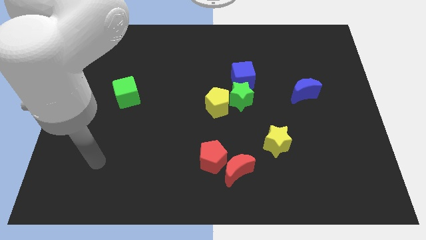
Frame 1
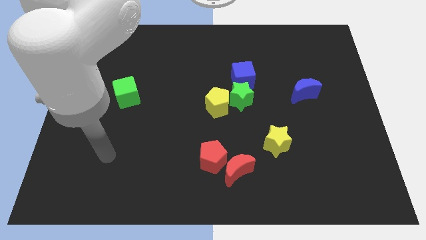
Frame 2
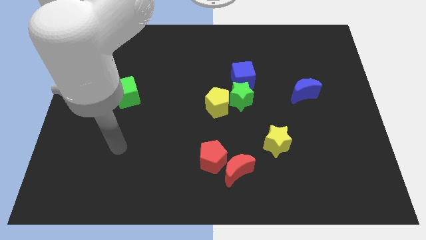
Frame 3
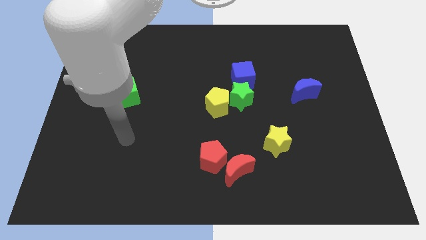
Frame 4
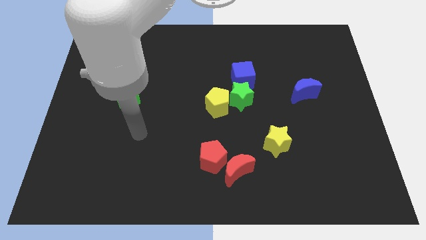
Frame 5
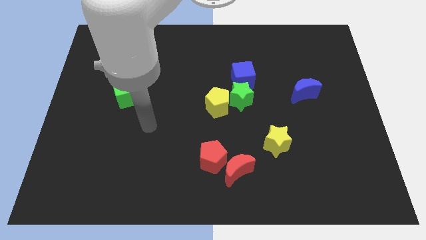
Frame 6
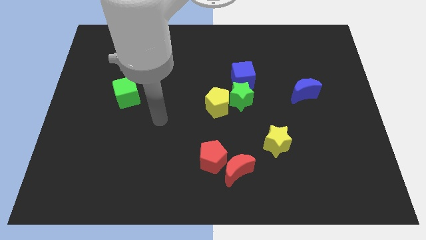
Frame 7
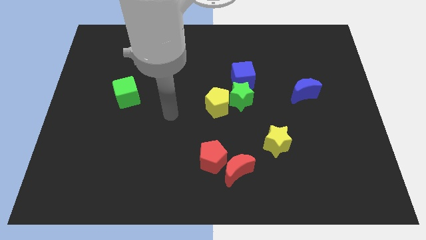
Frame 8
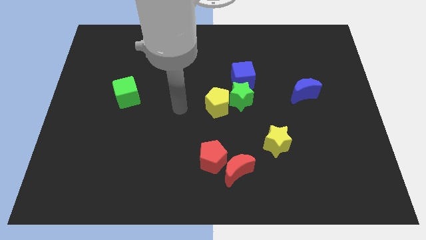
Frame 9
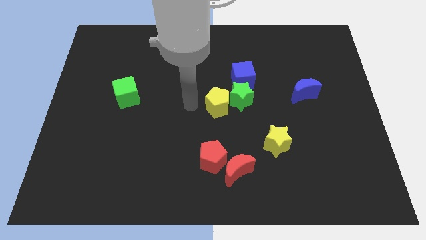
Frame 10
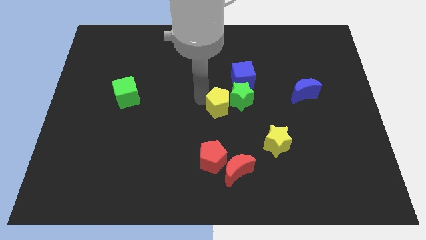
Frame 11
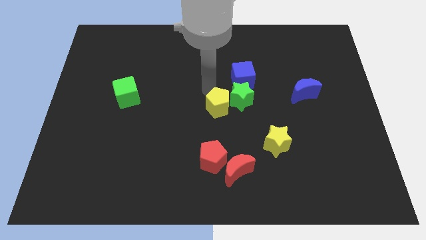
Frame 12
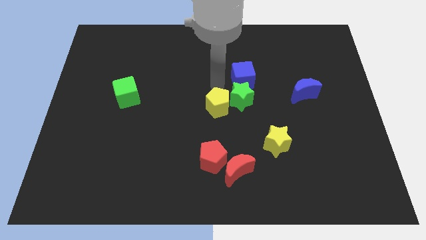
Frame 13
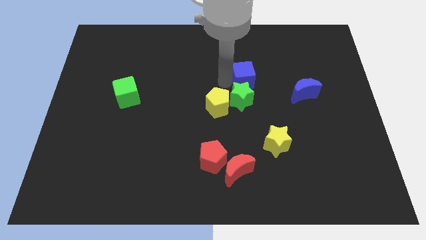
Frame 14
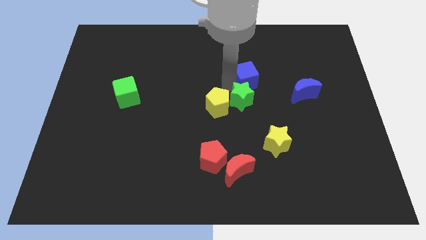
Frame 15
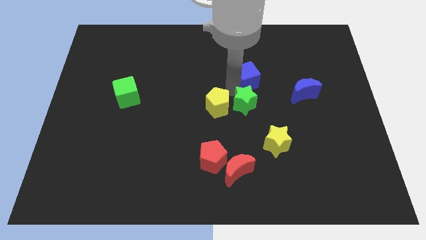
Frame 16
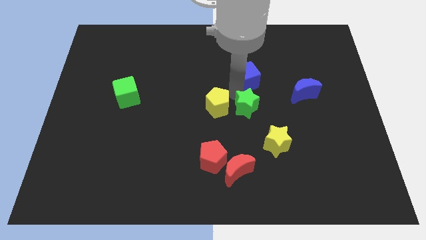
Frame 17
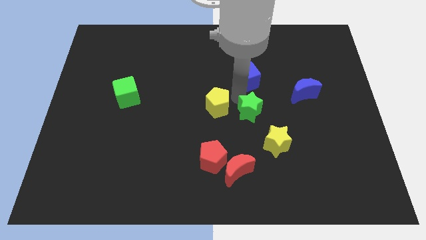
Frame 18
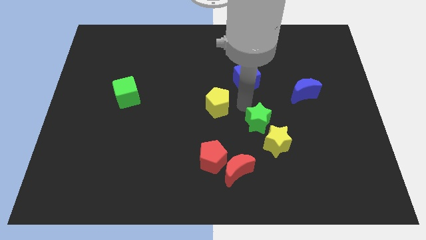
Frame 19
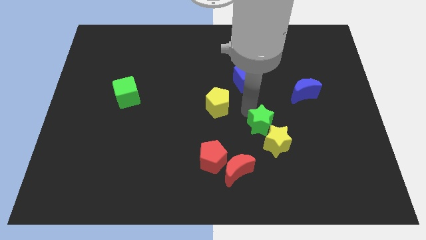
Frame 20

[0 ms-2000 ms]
push the green star next to the yellow star

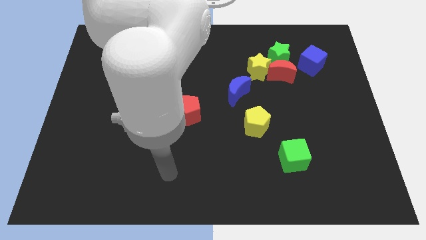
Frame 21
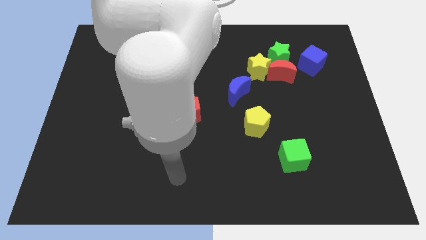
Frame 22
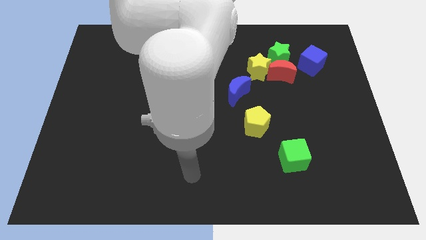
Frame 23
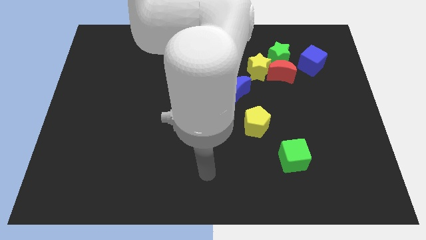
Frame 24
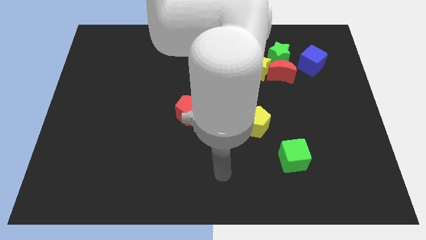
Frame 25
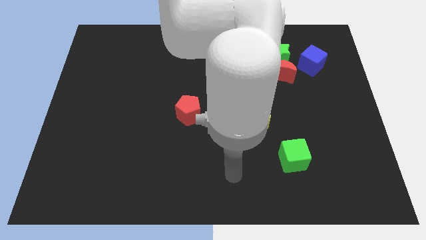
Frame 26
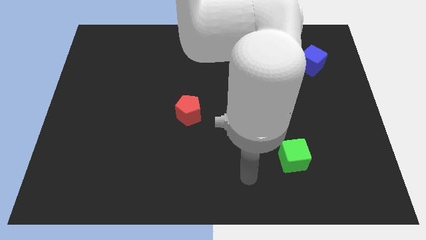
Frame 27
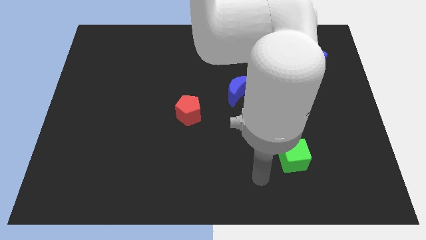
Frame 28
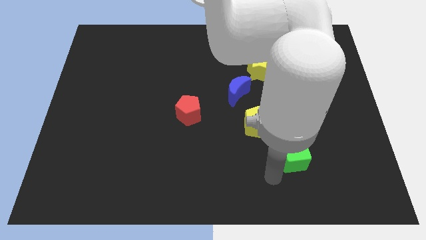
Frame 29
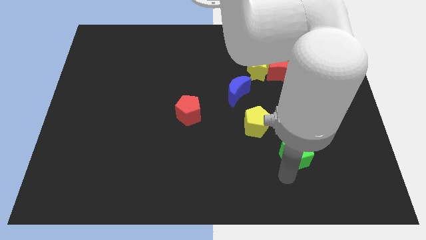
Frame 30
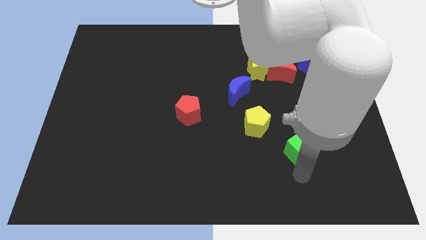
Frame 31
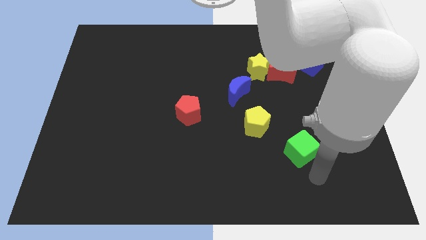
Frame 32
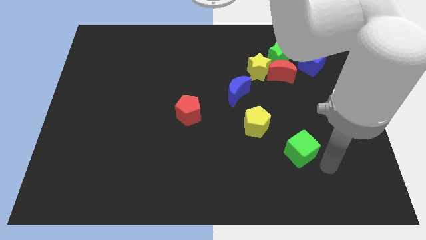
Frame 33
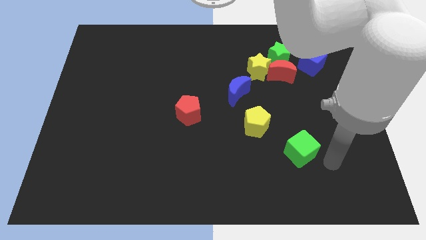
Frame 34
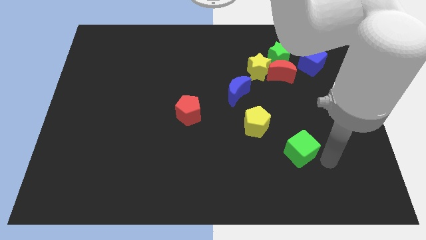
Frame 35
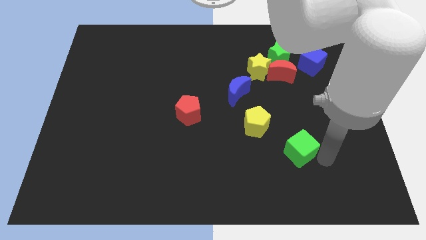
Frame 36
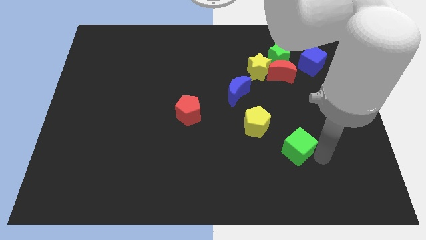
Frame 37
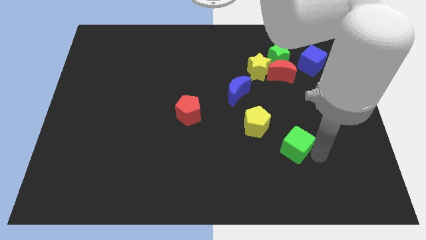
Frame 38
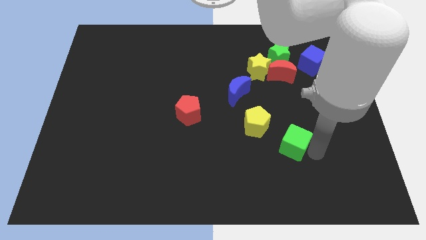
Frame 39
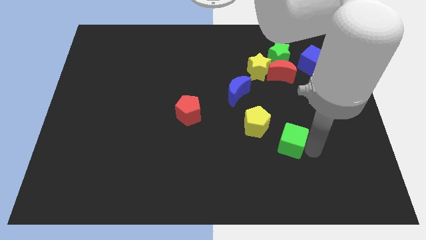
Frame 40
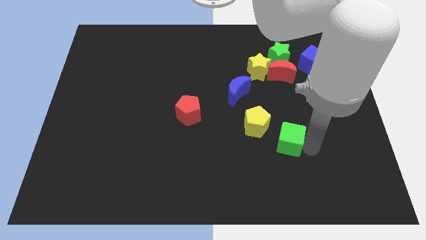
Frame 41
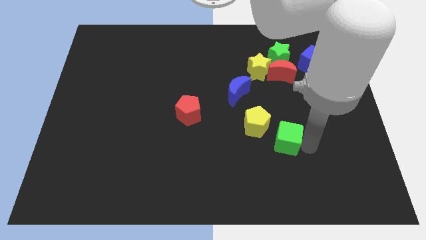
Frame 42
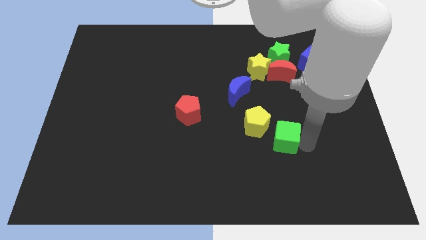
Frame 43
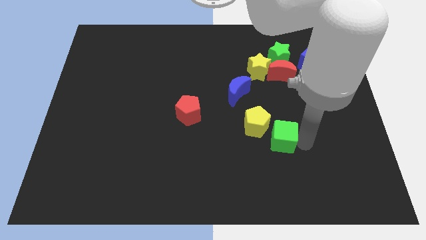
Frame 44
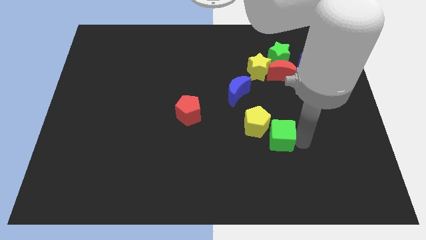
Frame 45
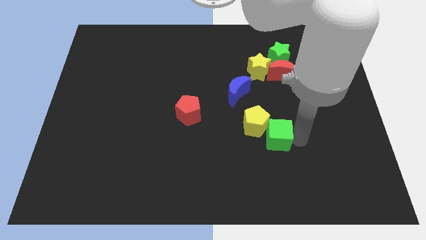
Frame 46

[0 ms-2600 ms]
push the green cube towards the yellow pentagon

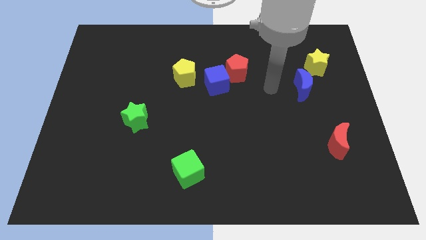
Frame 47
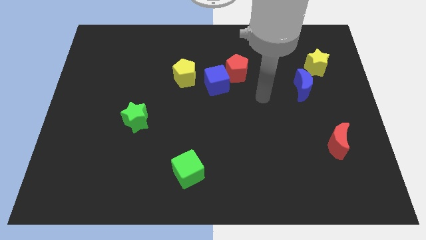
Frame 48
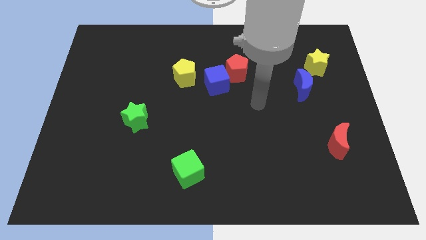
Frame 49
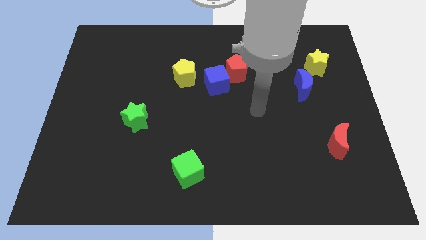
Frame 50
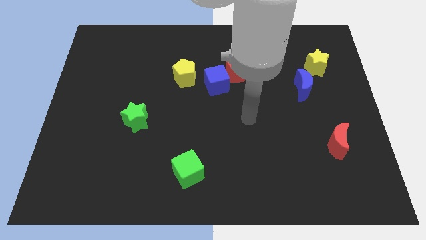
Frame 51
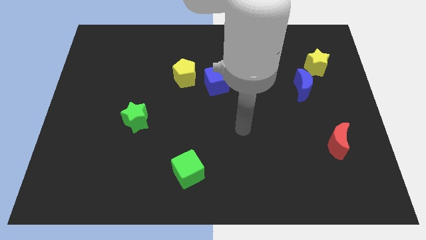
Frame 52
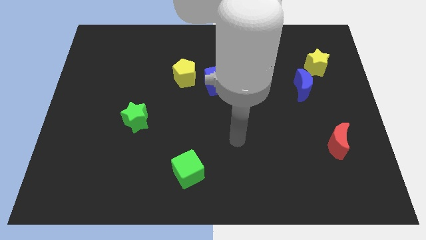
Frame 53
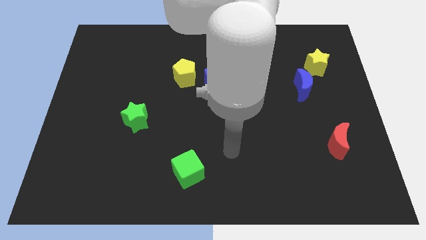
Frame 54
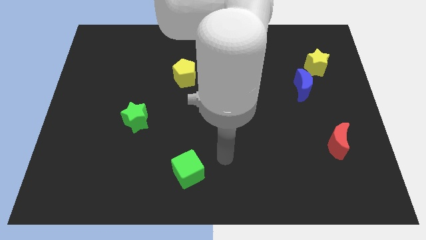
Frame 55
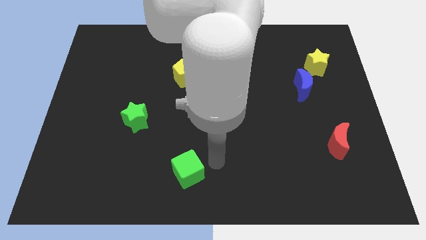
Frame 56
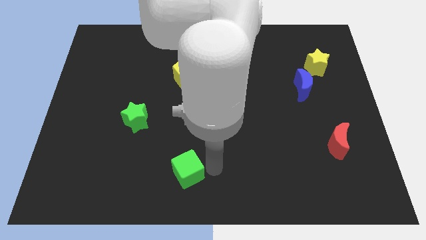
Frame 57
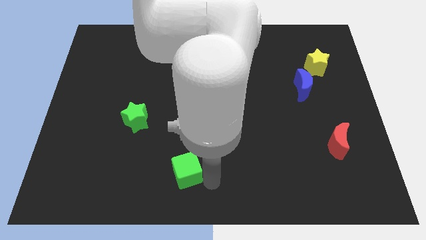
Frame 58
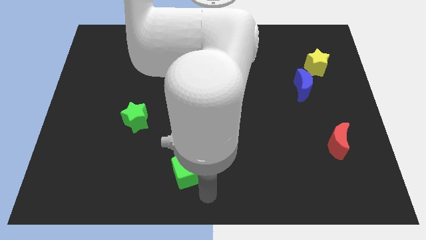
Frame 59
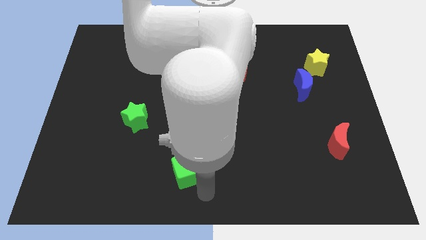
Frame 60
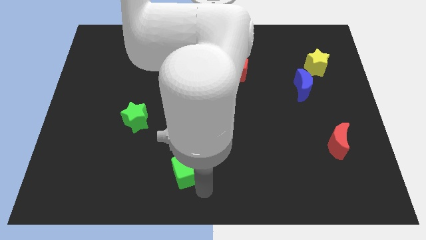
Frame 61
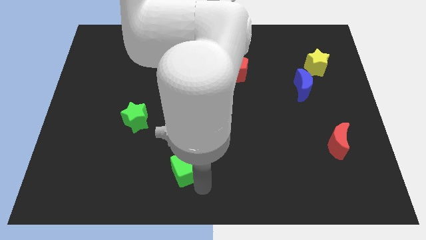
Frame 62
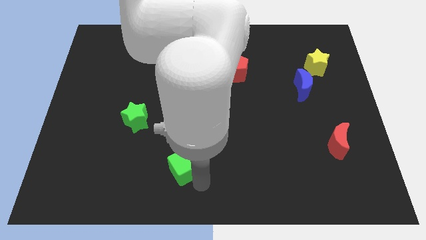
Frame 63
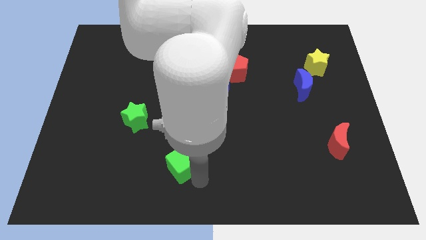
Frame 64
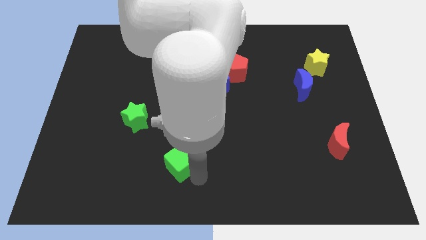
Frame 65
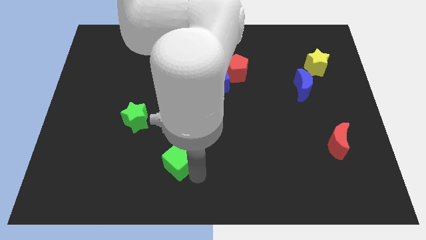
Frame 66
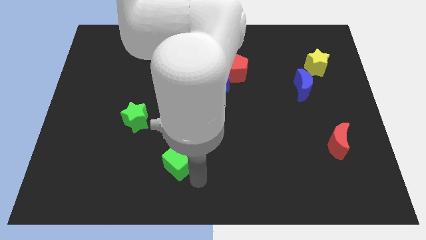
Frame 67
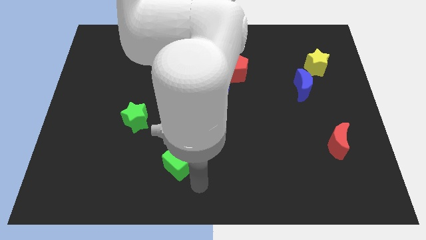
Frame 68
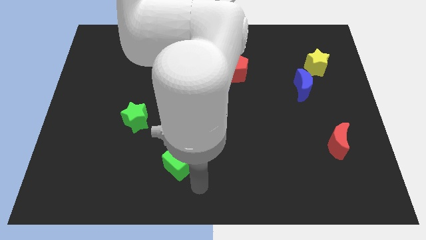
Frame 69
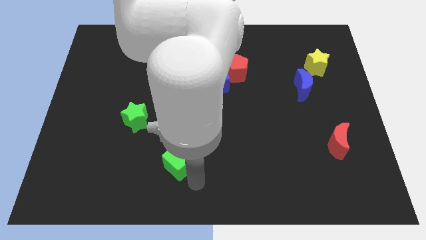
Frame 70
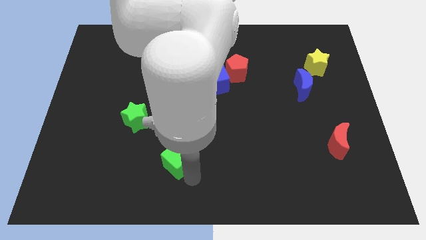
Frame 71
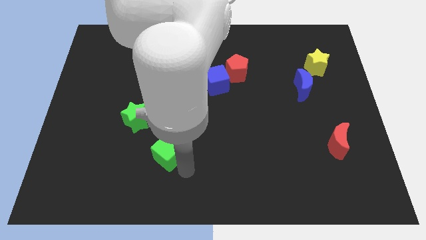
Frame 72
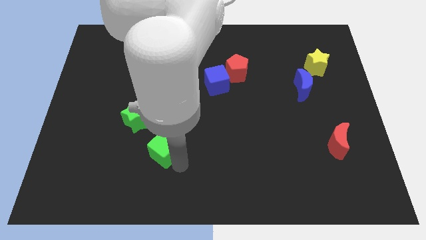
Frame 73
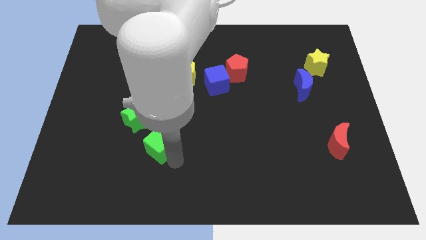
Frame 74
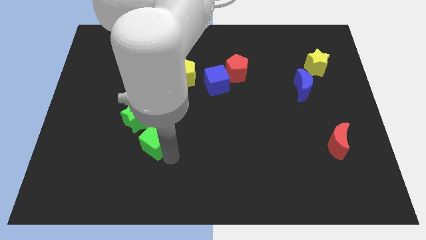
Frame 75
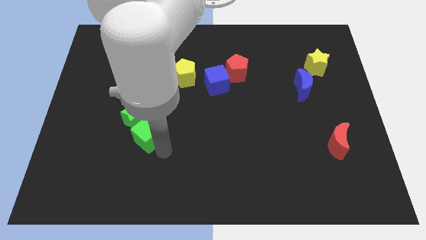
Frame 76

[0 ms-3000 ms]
move the green cube next to the green star

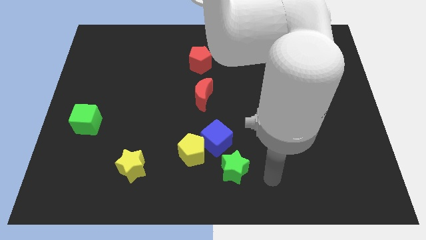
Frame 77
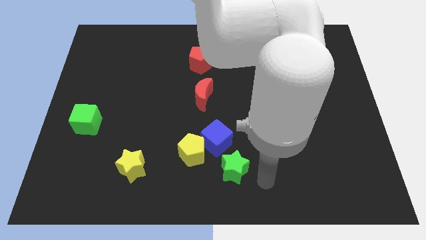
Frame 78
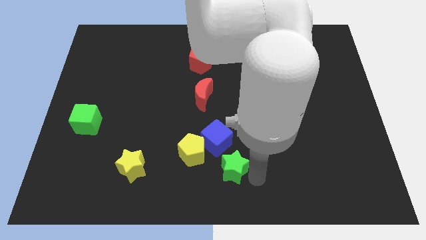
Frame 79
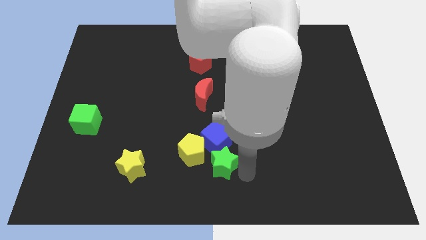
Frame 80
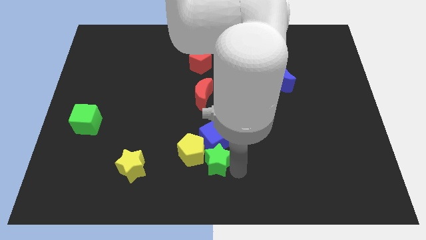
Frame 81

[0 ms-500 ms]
move the green star towards the yellow pentagon

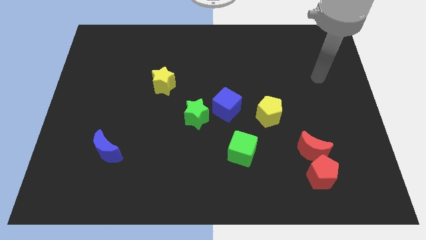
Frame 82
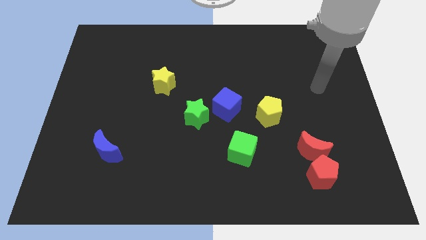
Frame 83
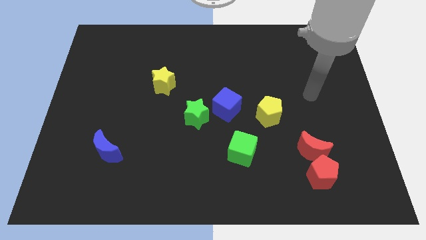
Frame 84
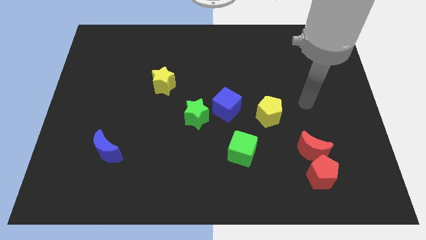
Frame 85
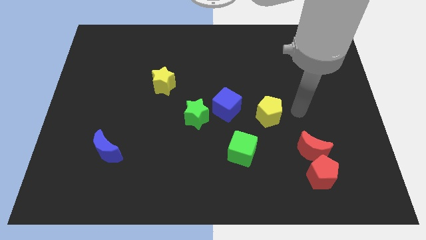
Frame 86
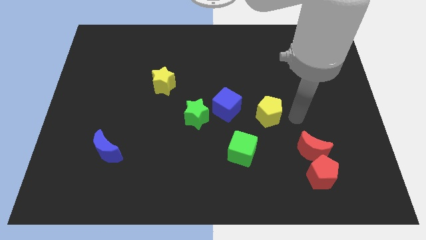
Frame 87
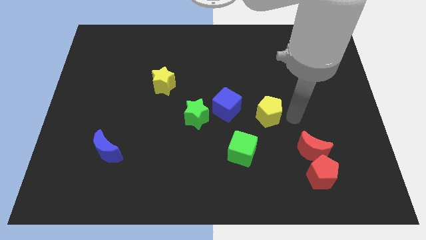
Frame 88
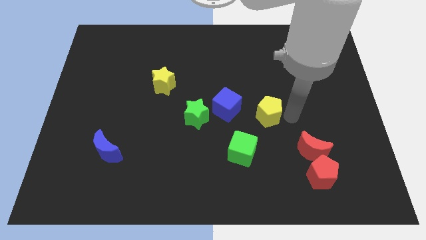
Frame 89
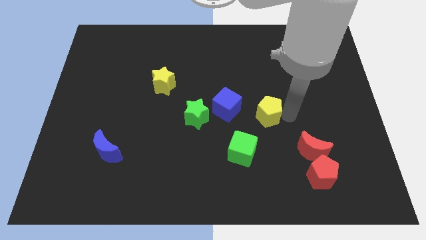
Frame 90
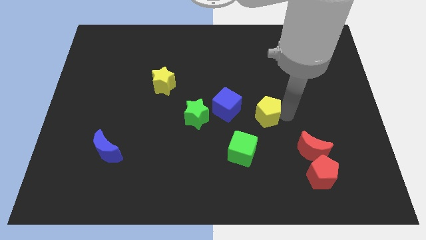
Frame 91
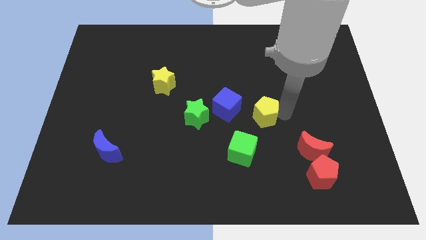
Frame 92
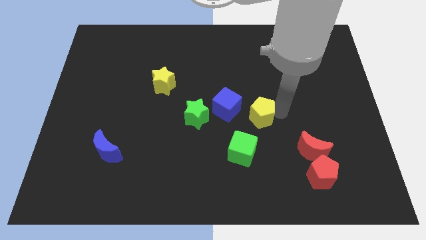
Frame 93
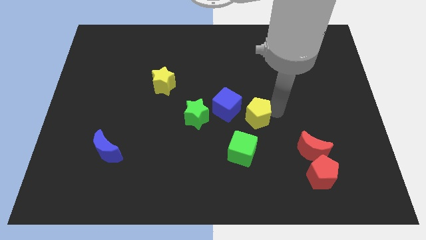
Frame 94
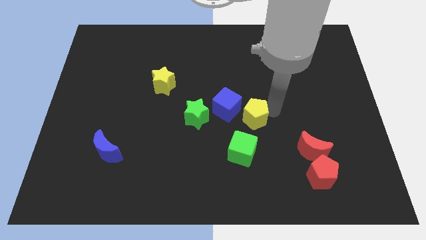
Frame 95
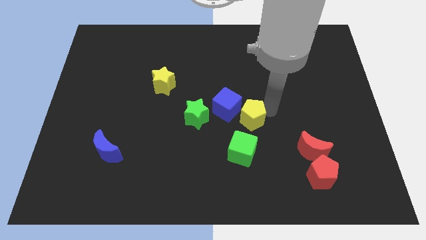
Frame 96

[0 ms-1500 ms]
put the yellow pentagon towards the blue cube
